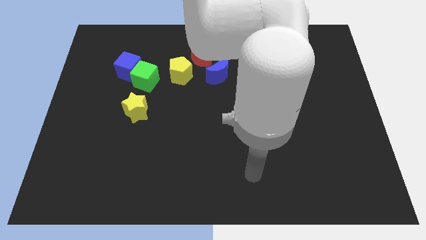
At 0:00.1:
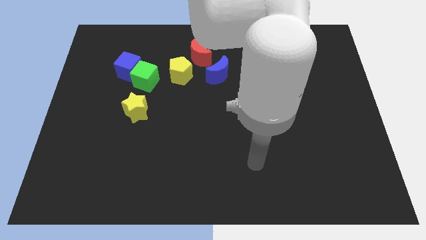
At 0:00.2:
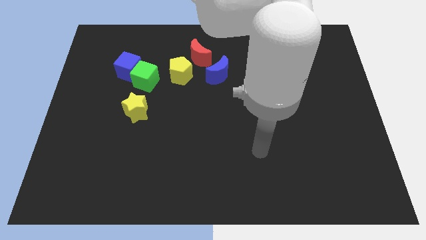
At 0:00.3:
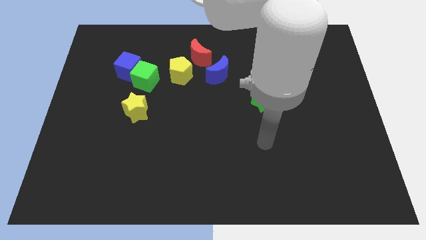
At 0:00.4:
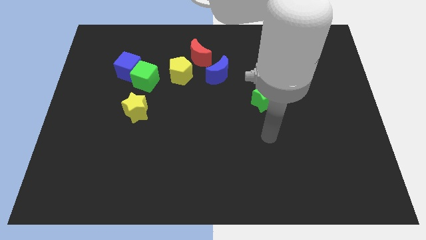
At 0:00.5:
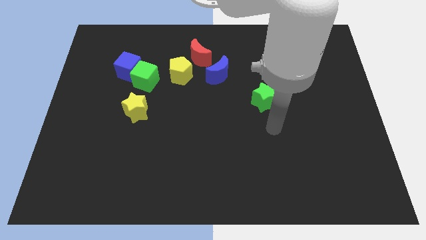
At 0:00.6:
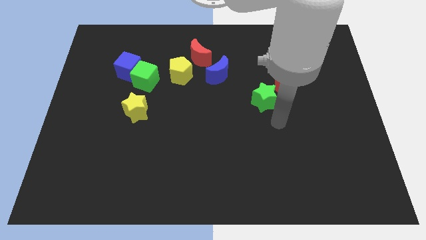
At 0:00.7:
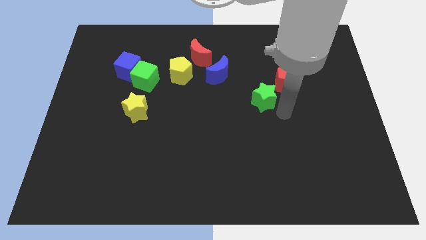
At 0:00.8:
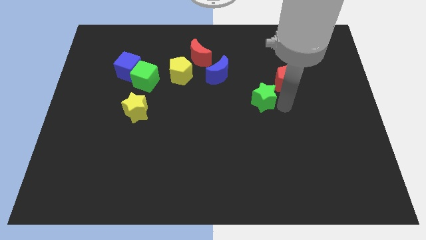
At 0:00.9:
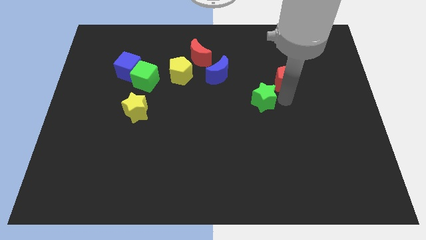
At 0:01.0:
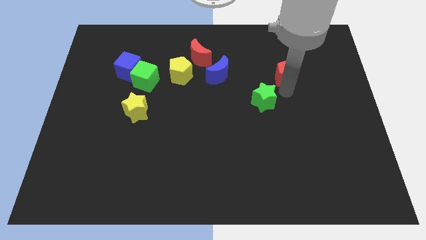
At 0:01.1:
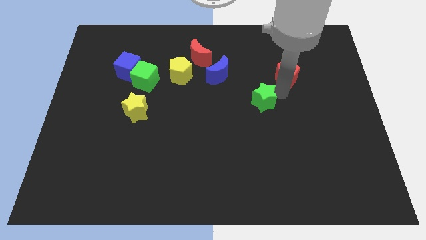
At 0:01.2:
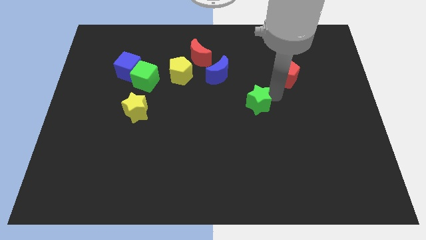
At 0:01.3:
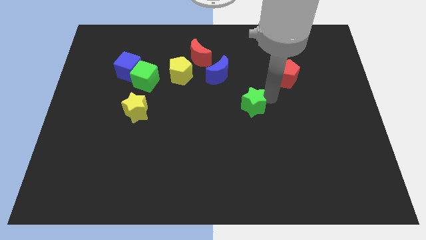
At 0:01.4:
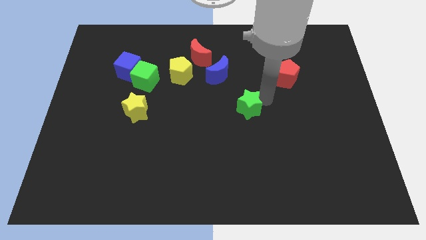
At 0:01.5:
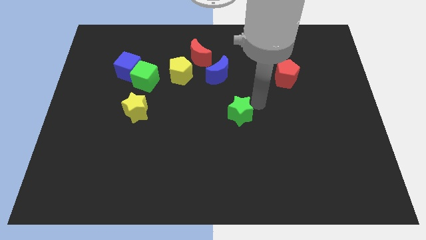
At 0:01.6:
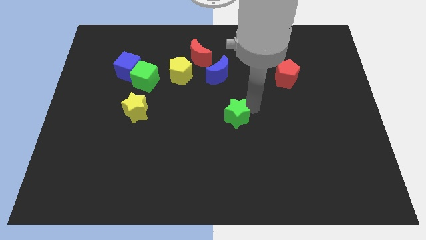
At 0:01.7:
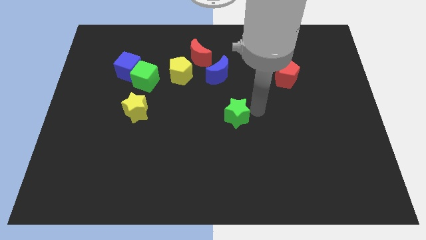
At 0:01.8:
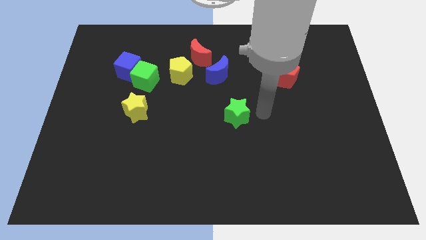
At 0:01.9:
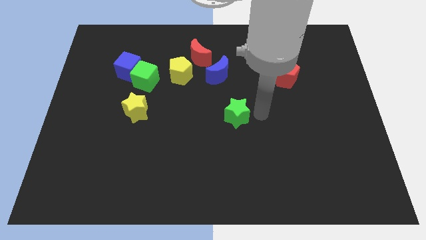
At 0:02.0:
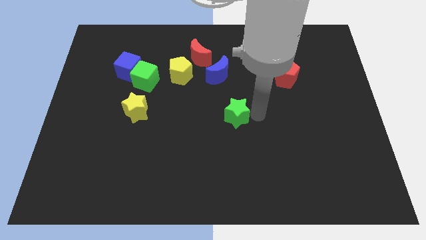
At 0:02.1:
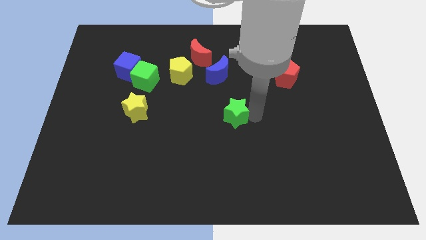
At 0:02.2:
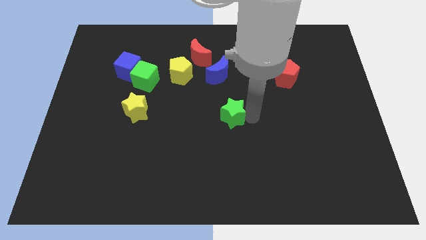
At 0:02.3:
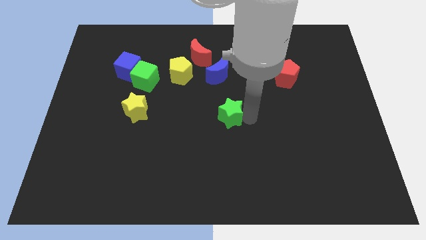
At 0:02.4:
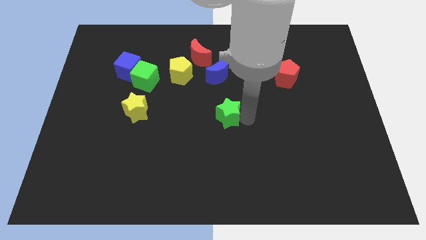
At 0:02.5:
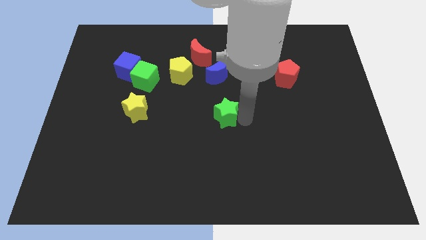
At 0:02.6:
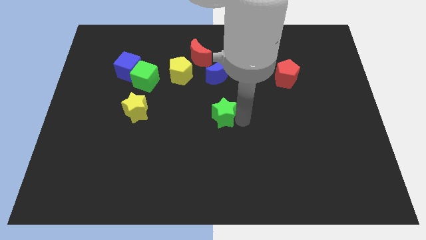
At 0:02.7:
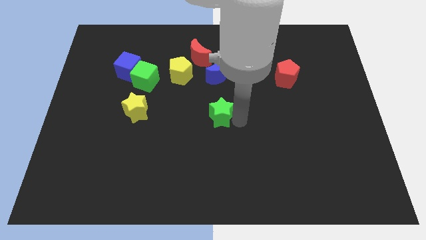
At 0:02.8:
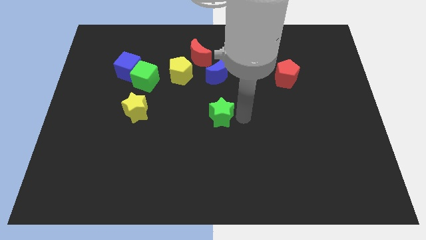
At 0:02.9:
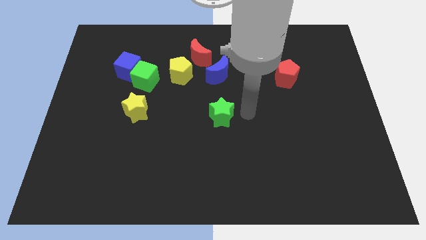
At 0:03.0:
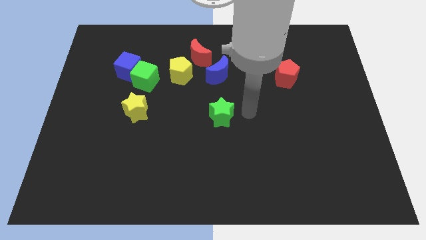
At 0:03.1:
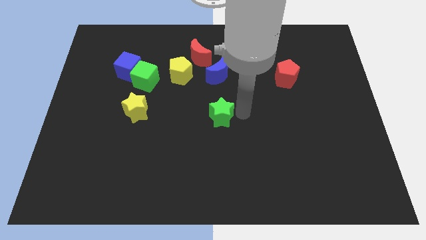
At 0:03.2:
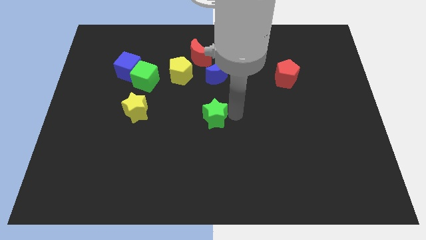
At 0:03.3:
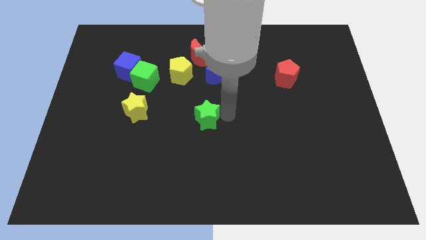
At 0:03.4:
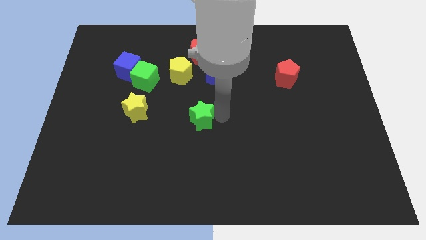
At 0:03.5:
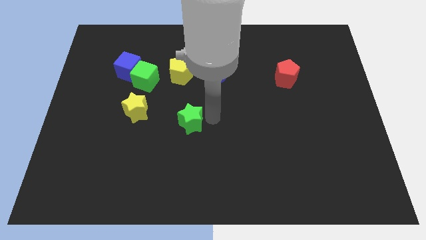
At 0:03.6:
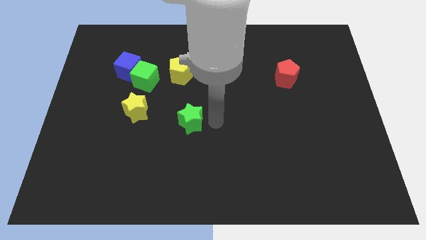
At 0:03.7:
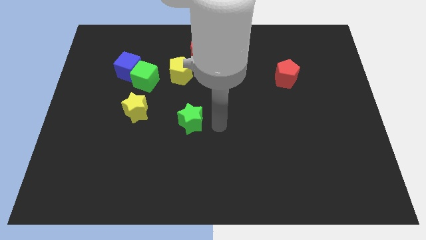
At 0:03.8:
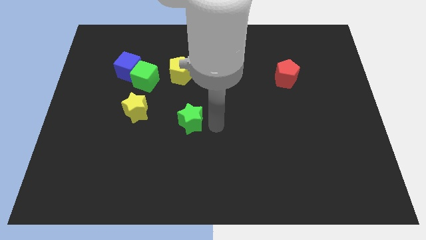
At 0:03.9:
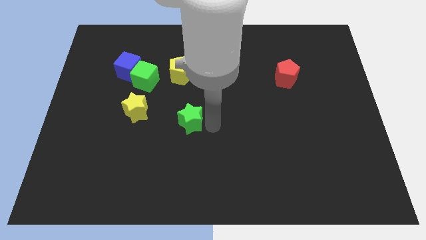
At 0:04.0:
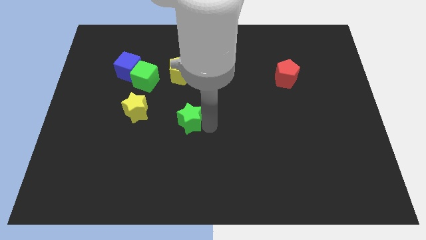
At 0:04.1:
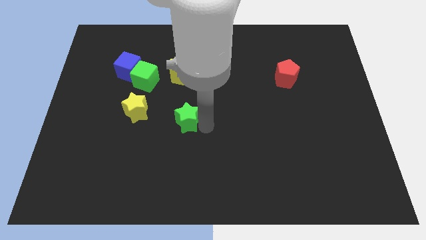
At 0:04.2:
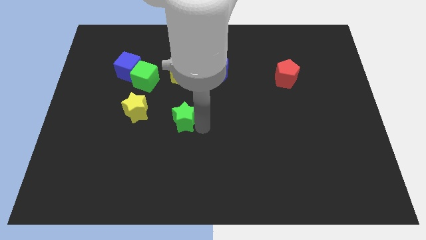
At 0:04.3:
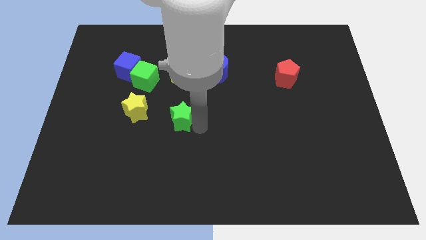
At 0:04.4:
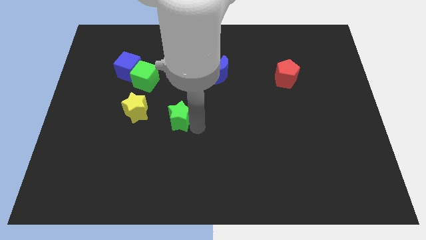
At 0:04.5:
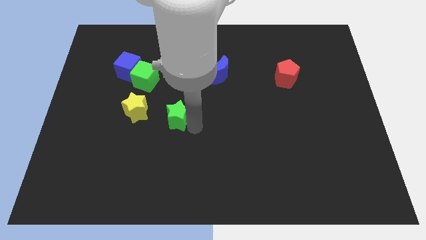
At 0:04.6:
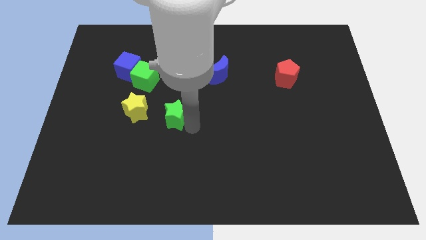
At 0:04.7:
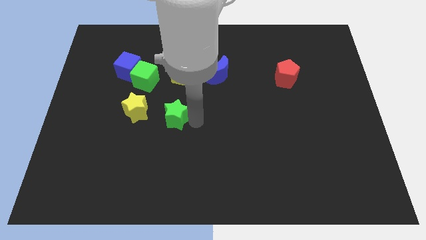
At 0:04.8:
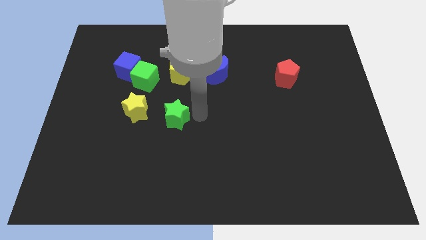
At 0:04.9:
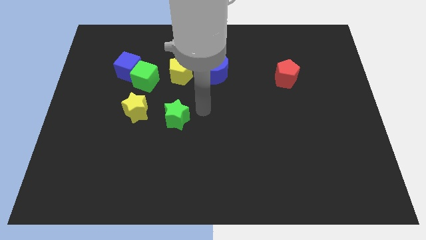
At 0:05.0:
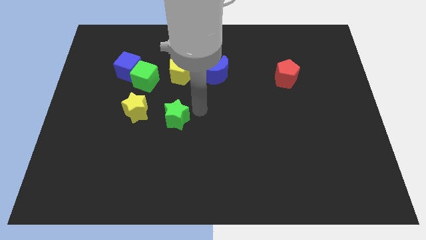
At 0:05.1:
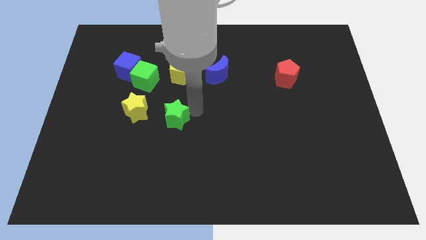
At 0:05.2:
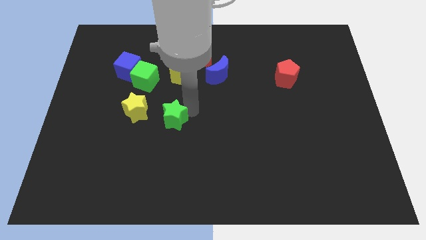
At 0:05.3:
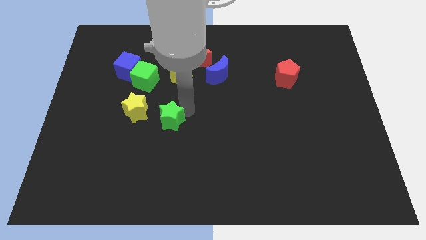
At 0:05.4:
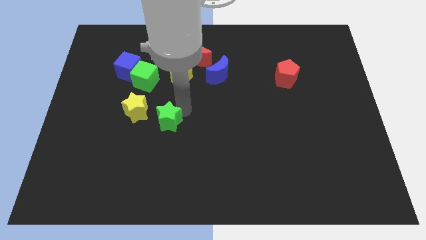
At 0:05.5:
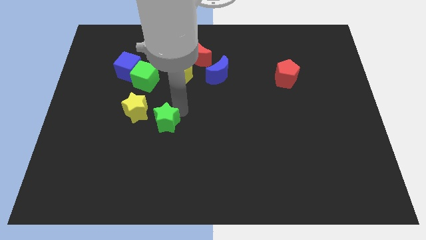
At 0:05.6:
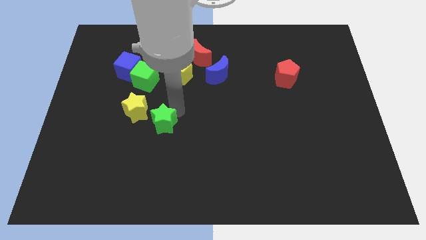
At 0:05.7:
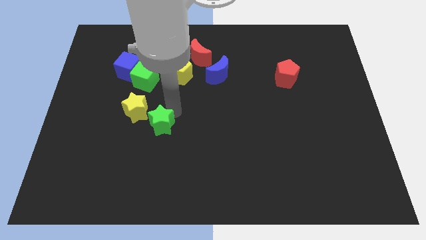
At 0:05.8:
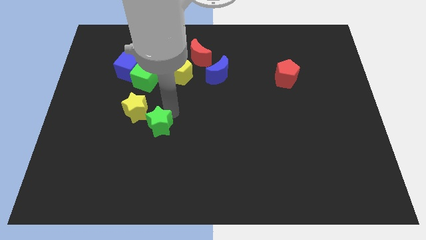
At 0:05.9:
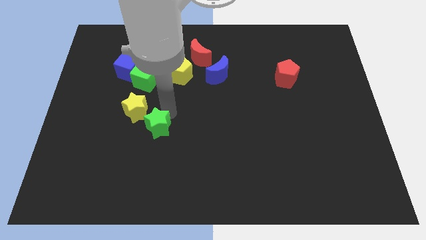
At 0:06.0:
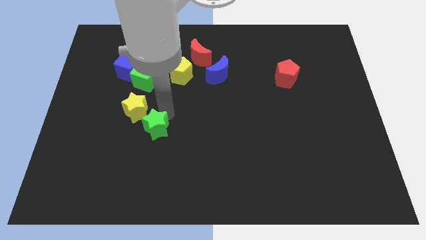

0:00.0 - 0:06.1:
move the green star to the bottom side of the green cube
